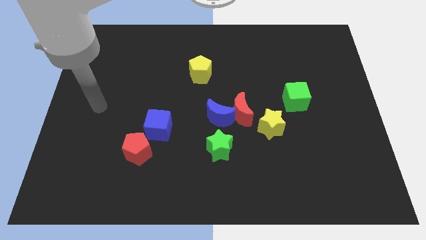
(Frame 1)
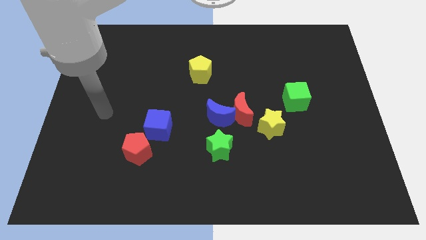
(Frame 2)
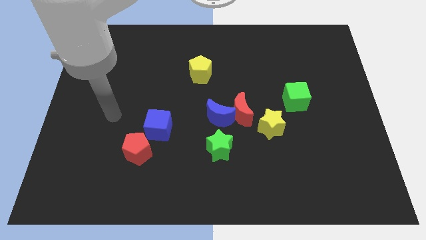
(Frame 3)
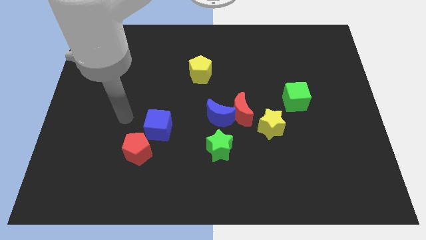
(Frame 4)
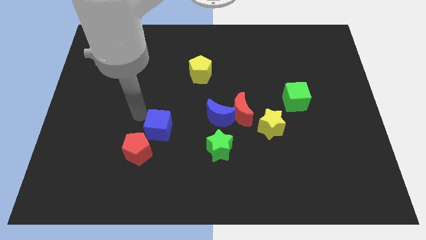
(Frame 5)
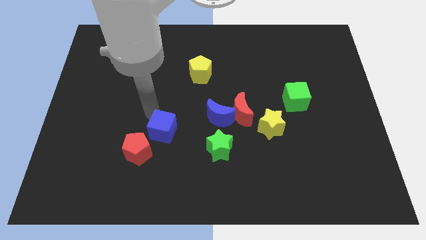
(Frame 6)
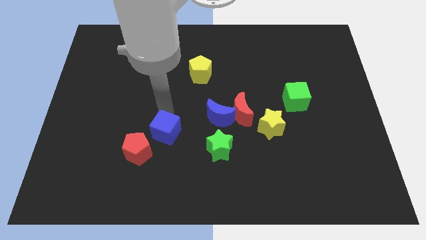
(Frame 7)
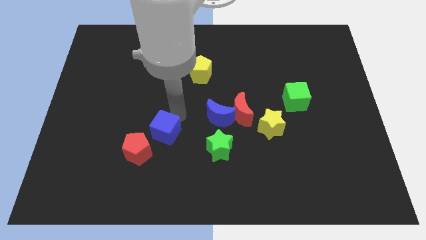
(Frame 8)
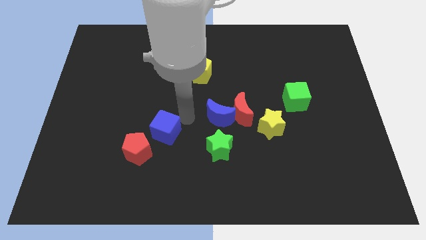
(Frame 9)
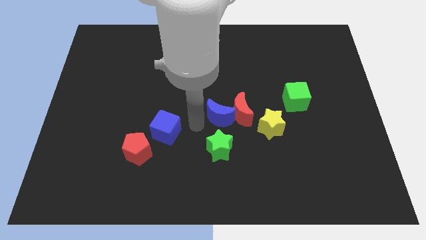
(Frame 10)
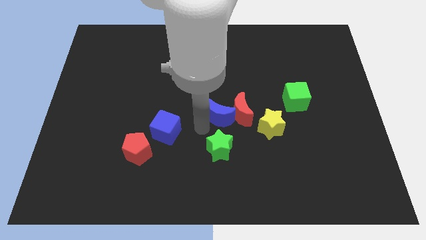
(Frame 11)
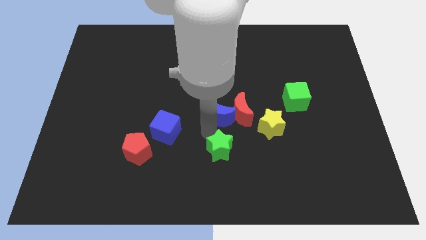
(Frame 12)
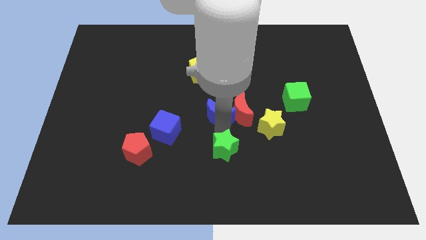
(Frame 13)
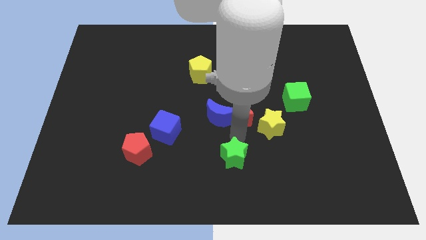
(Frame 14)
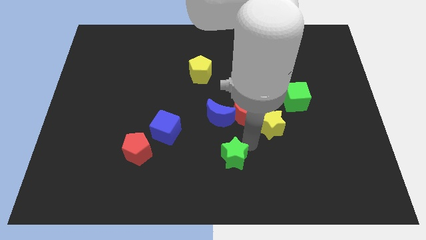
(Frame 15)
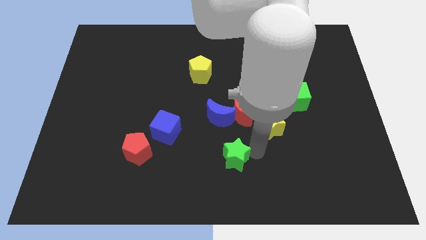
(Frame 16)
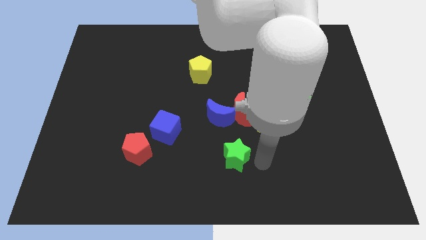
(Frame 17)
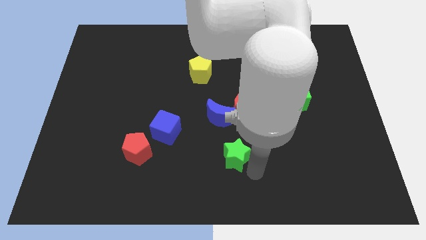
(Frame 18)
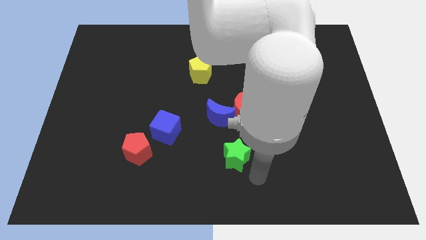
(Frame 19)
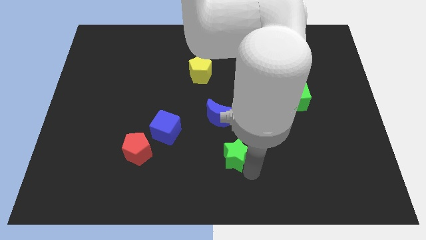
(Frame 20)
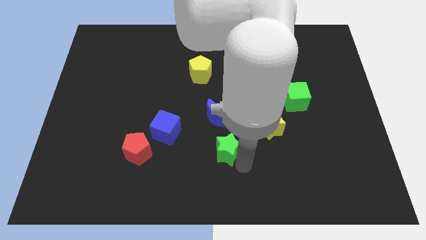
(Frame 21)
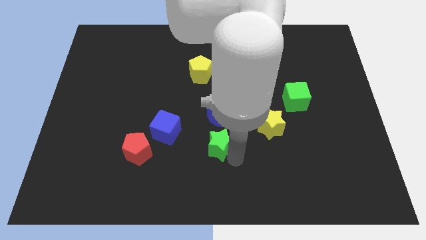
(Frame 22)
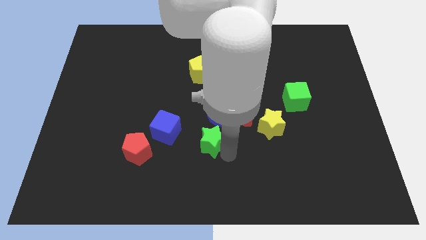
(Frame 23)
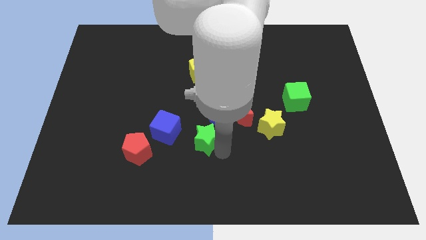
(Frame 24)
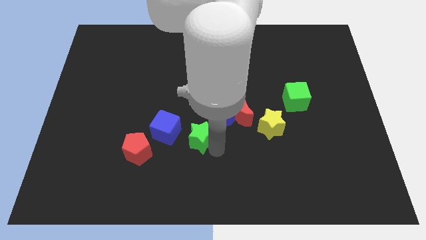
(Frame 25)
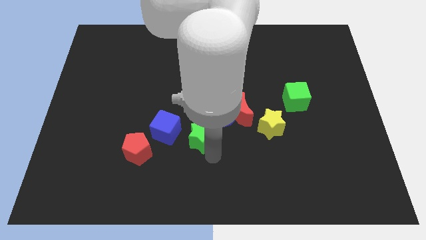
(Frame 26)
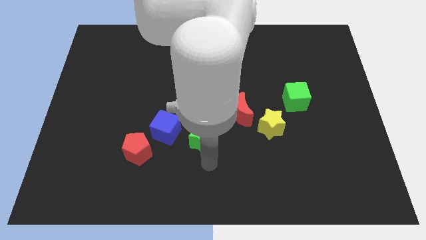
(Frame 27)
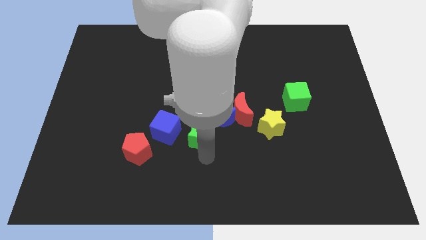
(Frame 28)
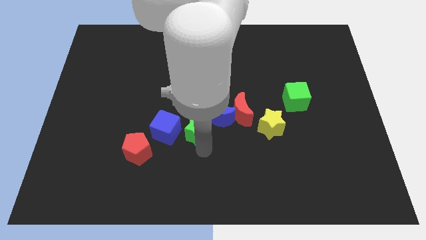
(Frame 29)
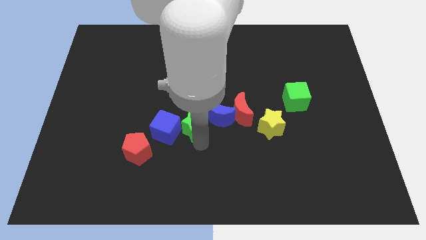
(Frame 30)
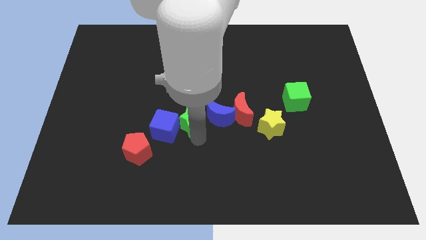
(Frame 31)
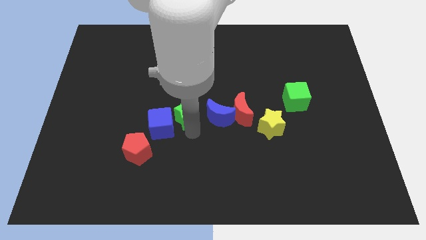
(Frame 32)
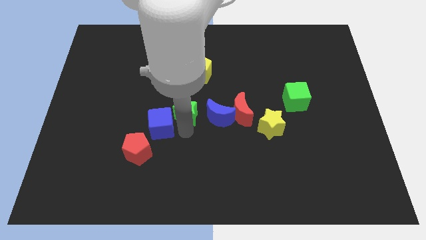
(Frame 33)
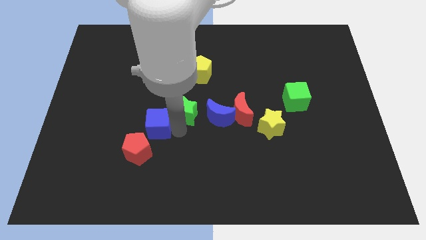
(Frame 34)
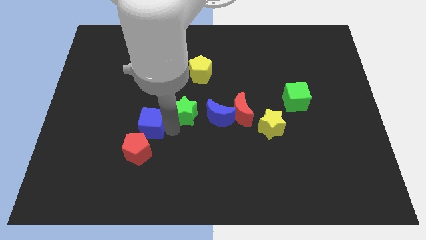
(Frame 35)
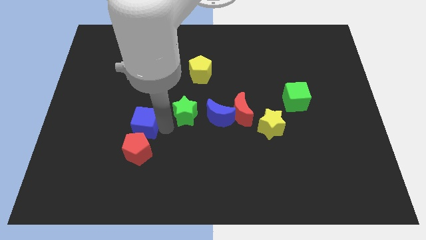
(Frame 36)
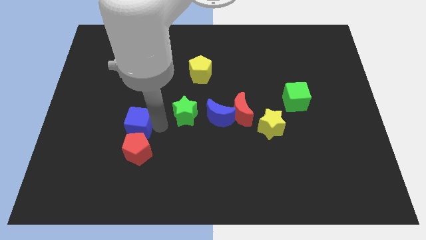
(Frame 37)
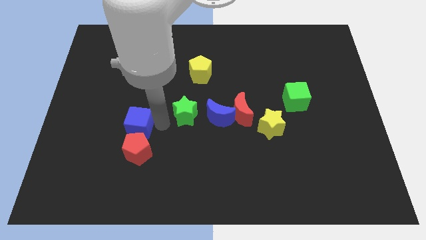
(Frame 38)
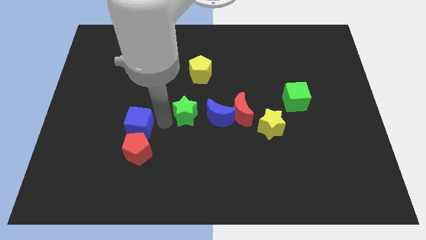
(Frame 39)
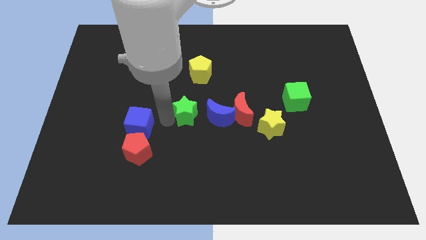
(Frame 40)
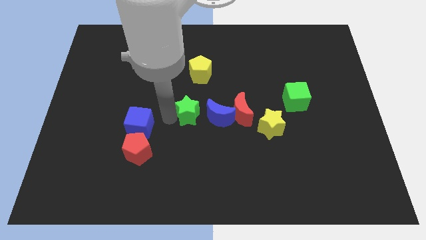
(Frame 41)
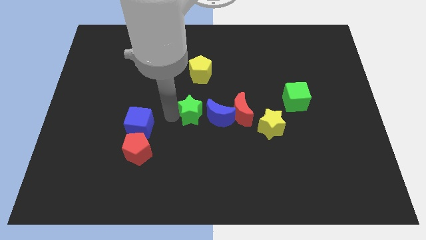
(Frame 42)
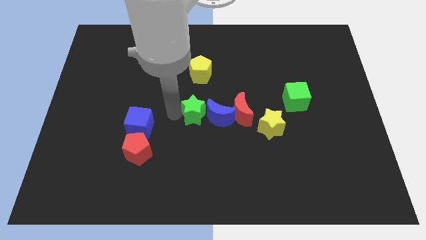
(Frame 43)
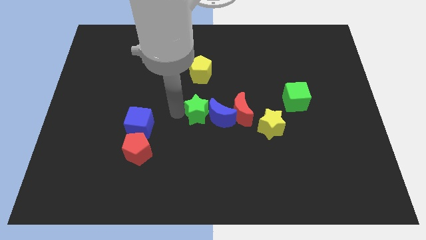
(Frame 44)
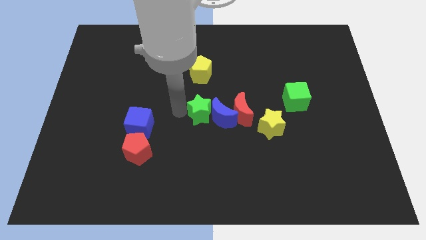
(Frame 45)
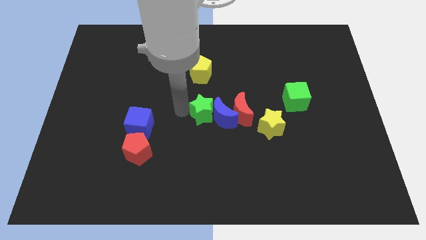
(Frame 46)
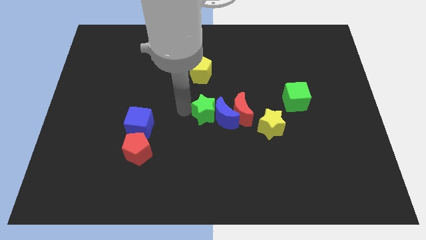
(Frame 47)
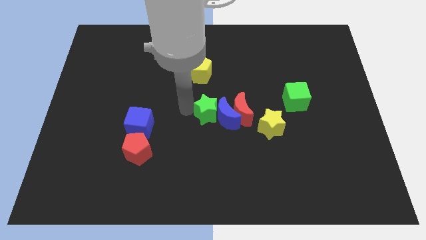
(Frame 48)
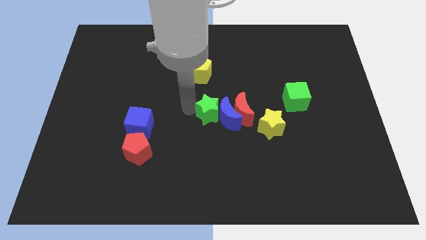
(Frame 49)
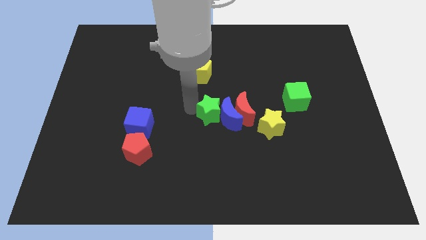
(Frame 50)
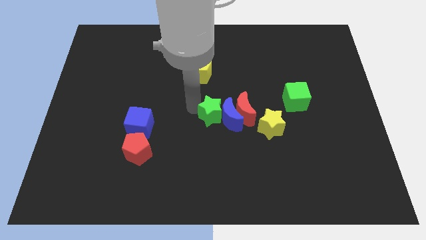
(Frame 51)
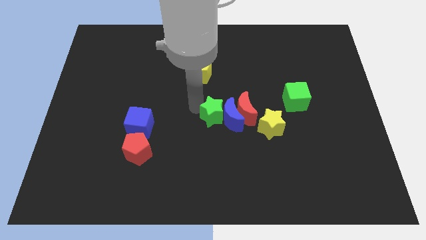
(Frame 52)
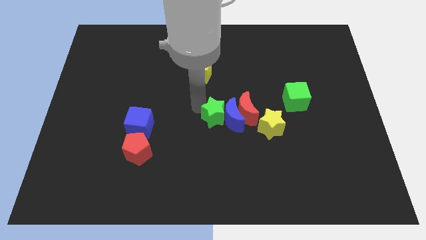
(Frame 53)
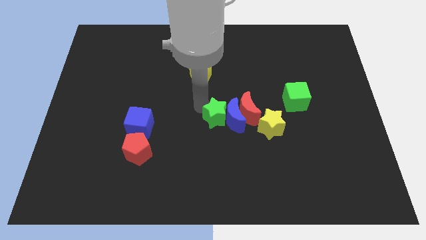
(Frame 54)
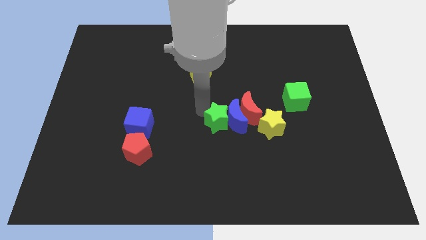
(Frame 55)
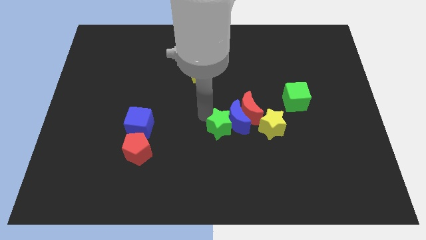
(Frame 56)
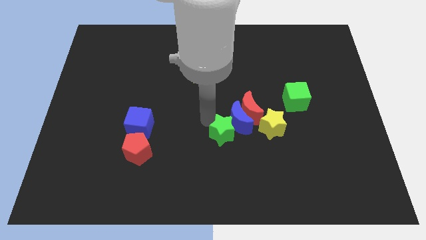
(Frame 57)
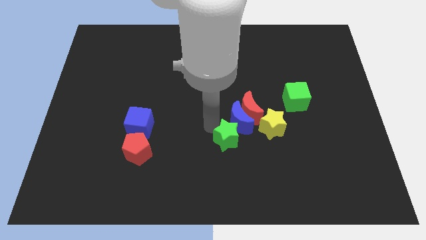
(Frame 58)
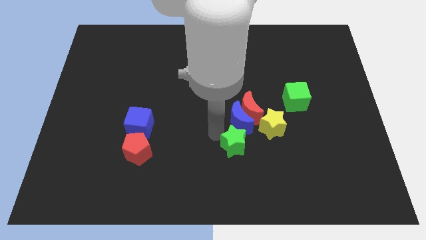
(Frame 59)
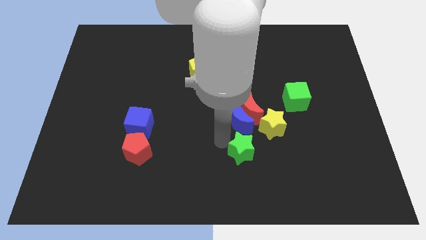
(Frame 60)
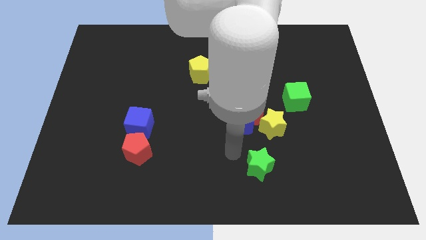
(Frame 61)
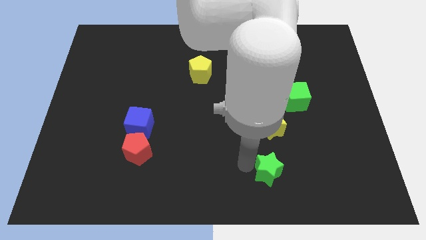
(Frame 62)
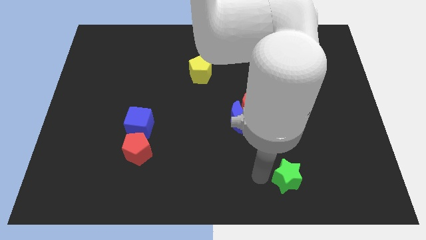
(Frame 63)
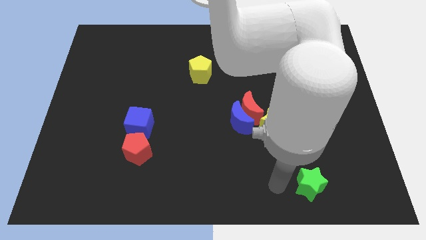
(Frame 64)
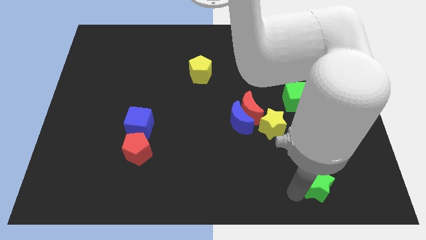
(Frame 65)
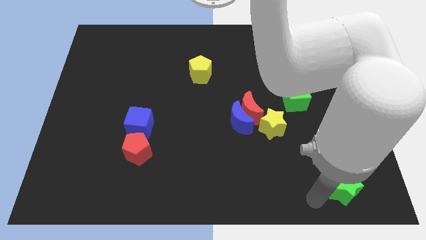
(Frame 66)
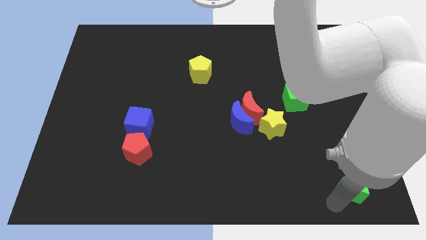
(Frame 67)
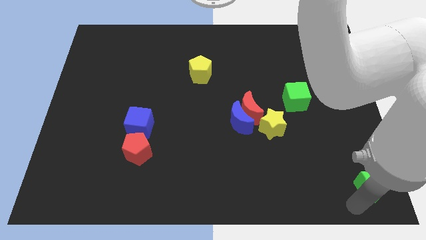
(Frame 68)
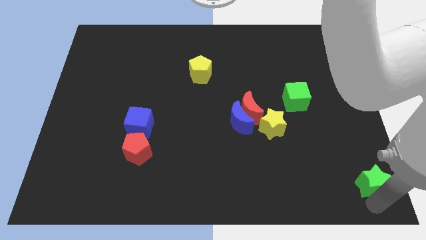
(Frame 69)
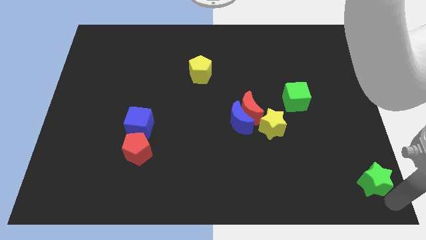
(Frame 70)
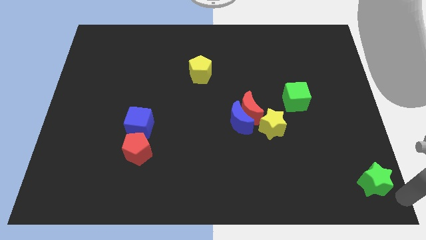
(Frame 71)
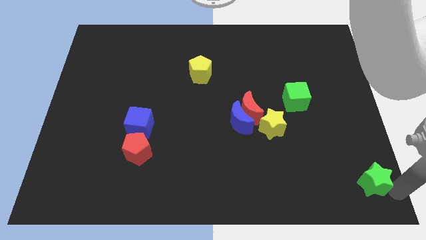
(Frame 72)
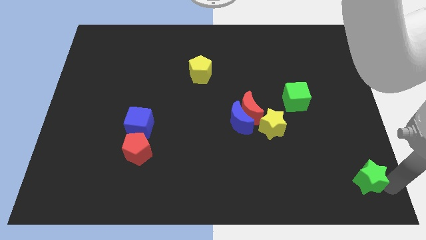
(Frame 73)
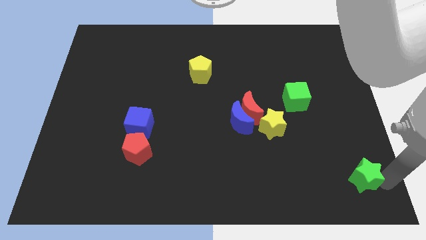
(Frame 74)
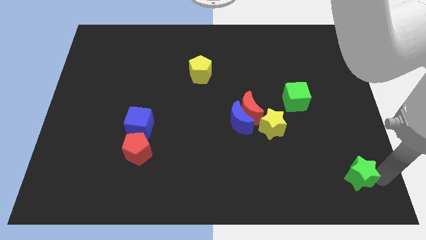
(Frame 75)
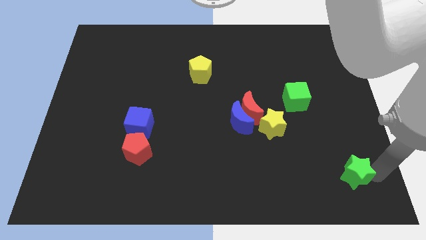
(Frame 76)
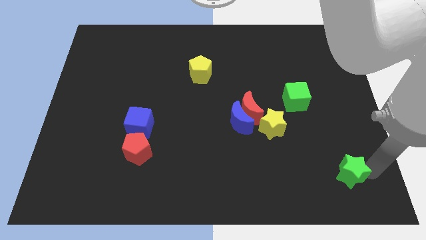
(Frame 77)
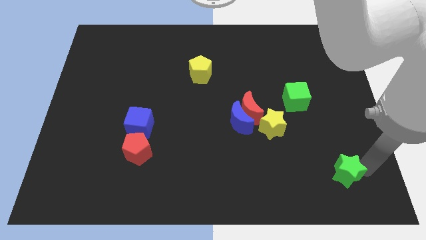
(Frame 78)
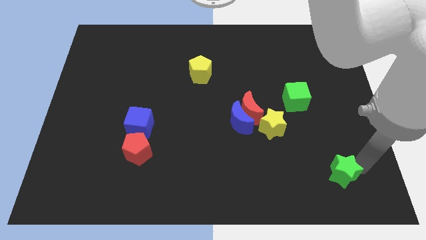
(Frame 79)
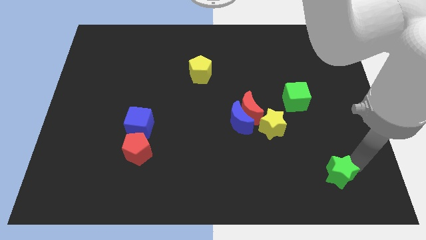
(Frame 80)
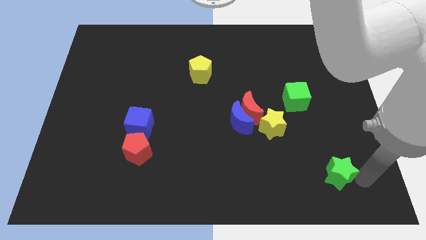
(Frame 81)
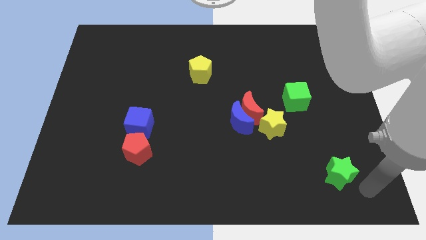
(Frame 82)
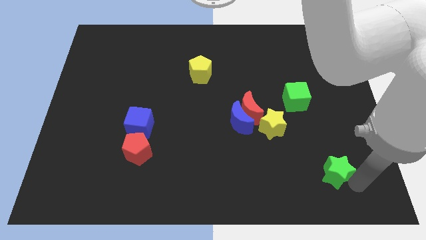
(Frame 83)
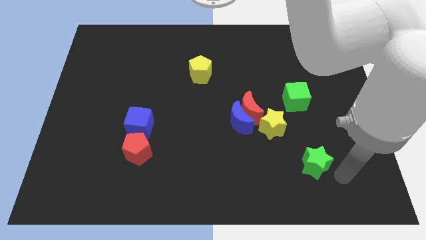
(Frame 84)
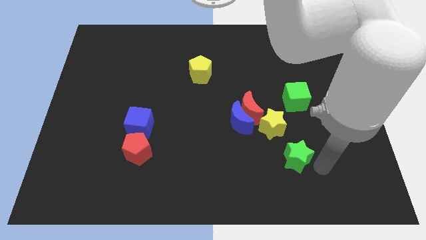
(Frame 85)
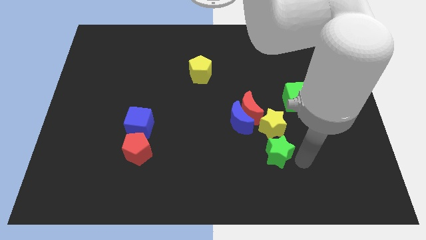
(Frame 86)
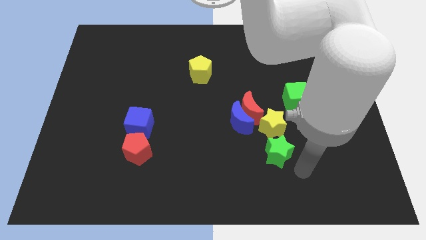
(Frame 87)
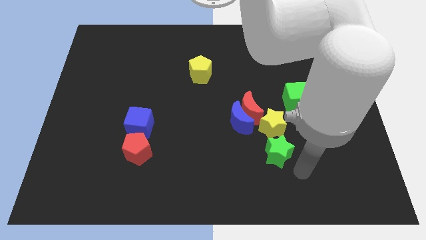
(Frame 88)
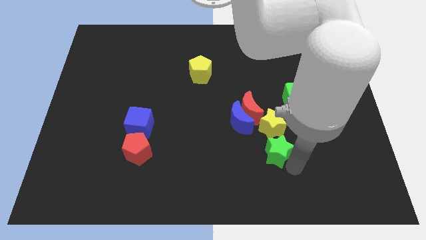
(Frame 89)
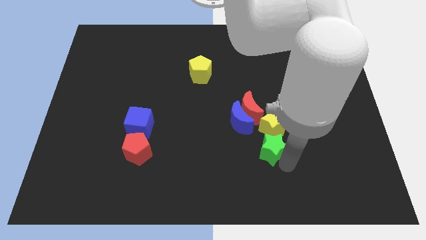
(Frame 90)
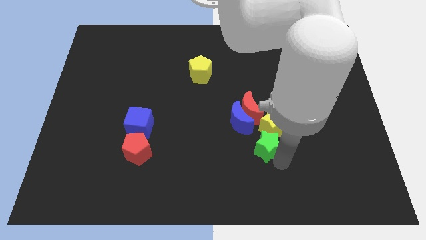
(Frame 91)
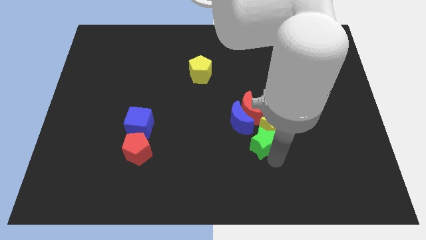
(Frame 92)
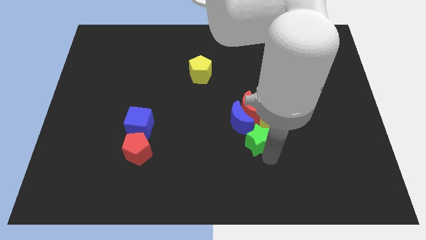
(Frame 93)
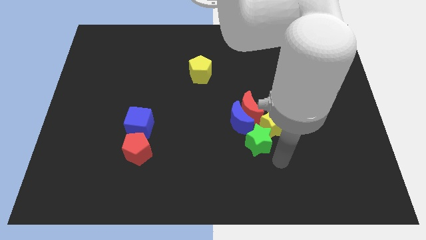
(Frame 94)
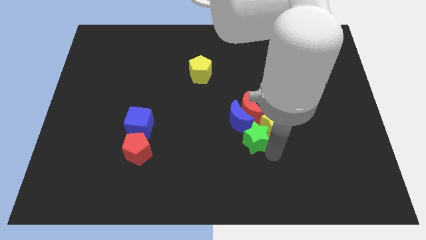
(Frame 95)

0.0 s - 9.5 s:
slightly slide the green star upwards and then right
